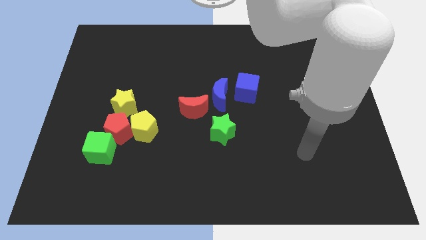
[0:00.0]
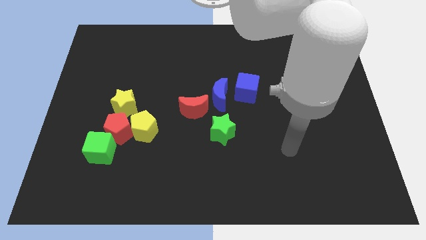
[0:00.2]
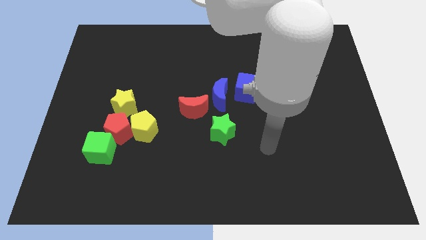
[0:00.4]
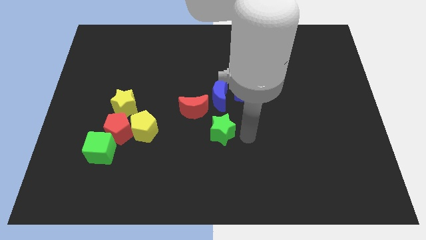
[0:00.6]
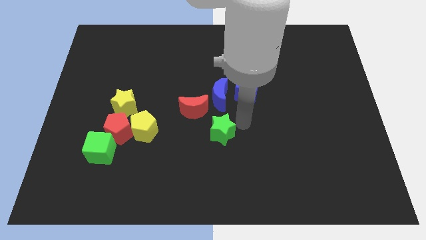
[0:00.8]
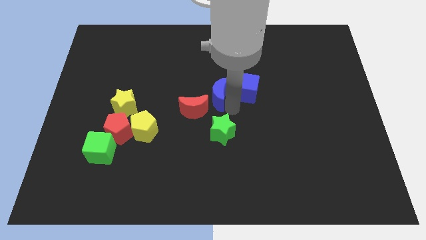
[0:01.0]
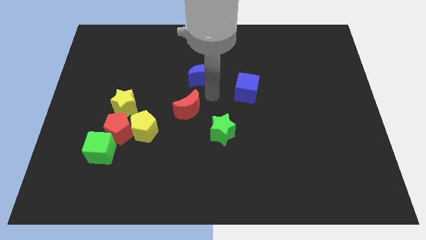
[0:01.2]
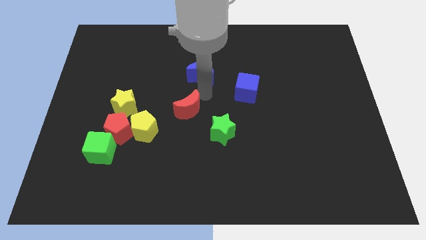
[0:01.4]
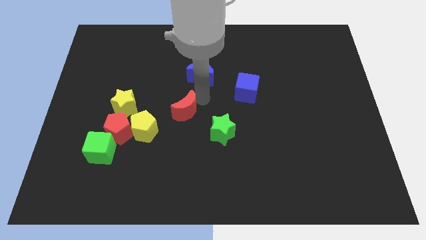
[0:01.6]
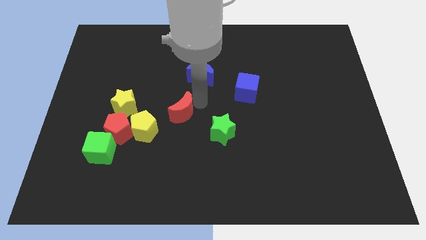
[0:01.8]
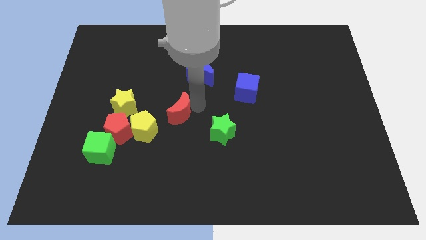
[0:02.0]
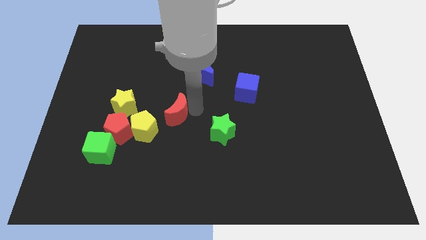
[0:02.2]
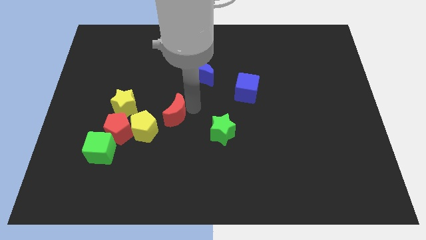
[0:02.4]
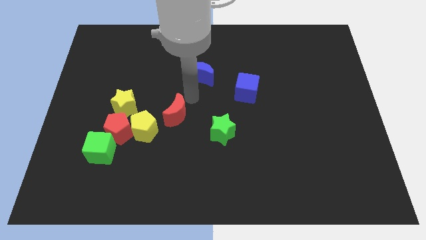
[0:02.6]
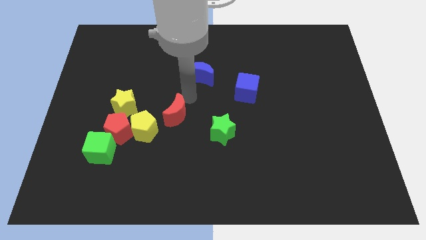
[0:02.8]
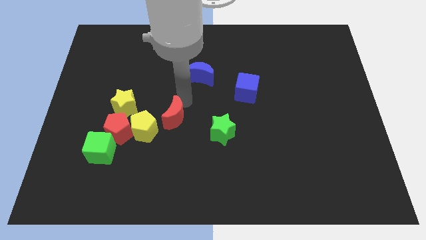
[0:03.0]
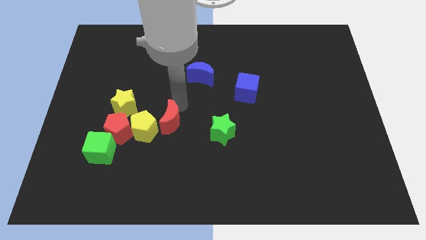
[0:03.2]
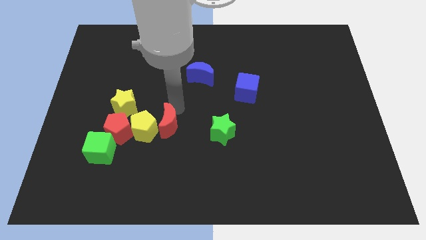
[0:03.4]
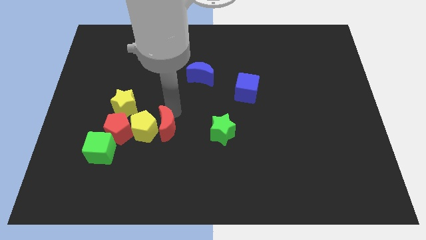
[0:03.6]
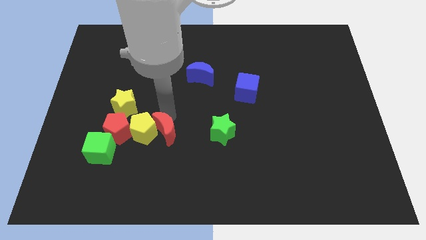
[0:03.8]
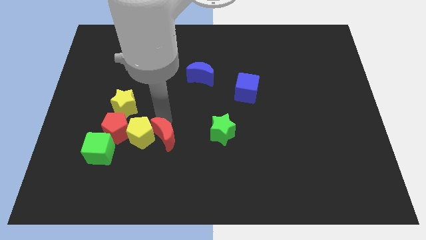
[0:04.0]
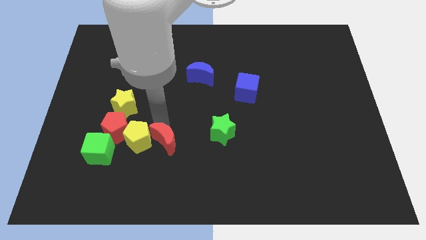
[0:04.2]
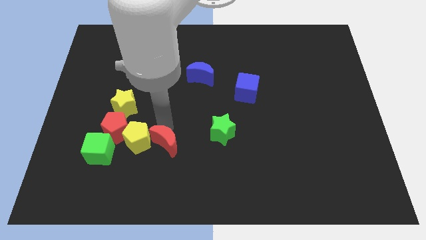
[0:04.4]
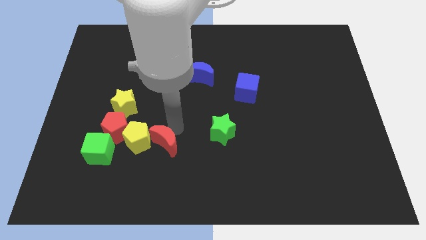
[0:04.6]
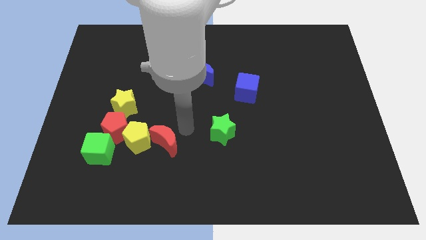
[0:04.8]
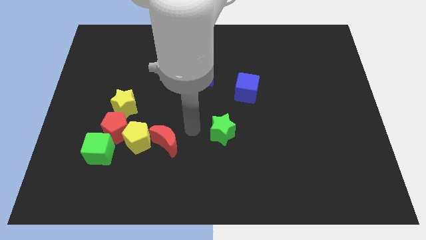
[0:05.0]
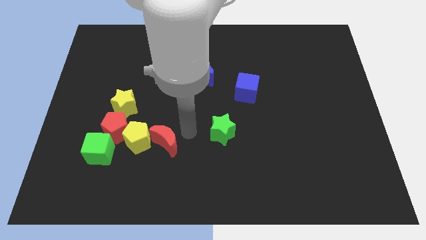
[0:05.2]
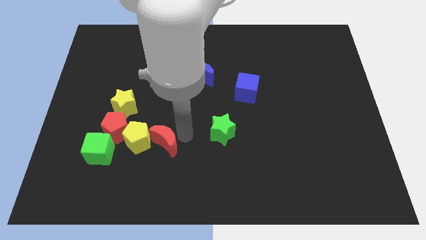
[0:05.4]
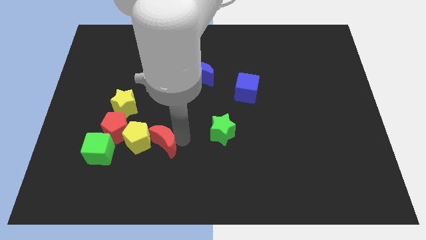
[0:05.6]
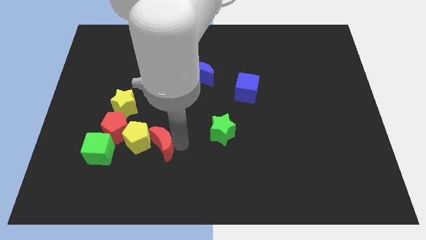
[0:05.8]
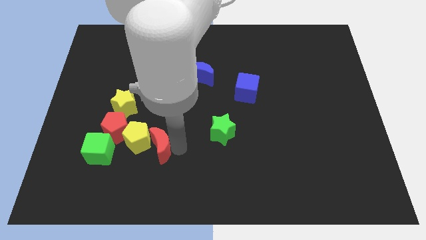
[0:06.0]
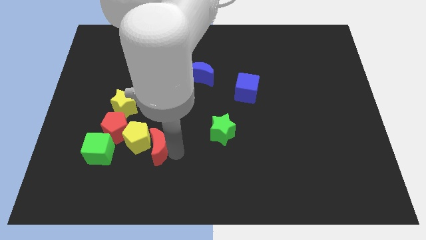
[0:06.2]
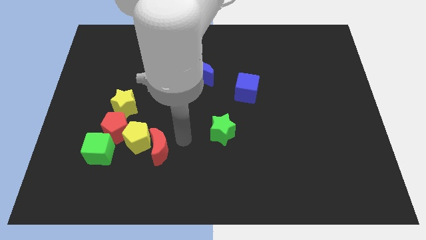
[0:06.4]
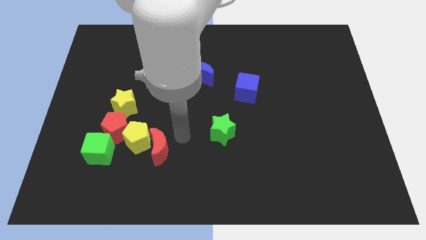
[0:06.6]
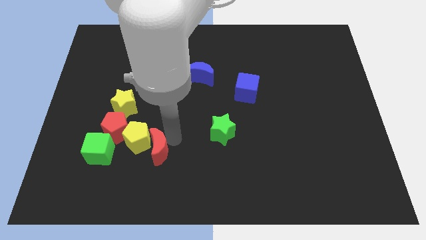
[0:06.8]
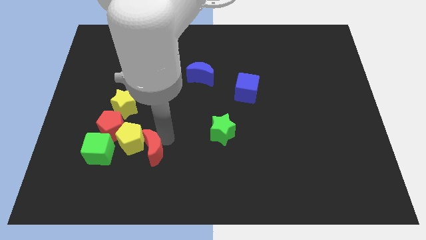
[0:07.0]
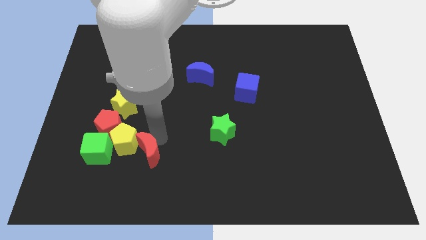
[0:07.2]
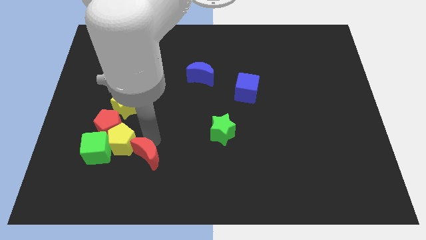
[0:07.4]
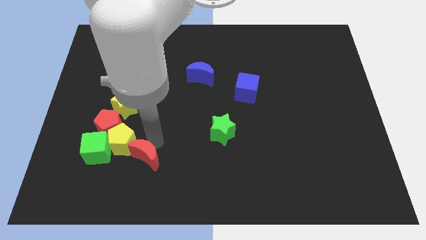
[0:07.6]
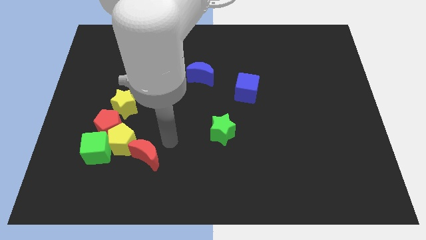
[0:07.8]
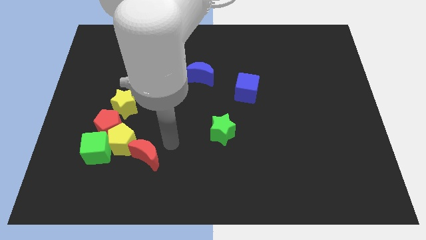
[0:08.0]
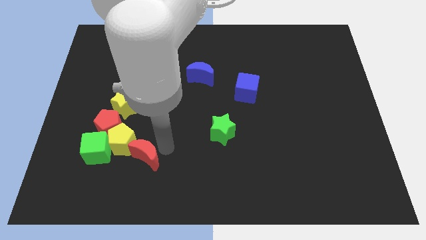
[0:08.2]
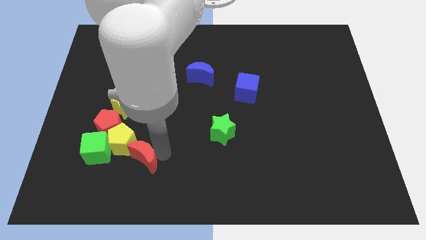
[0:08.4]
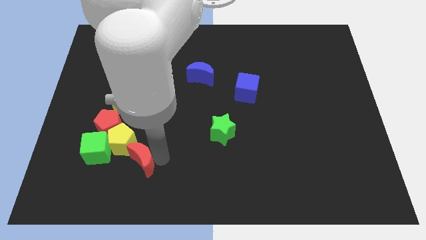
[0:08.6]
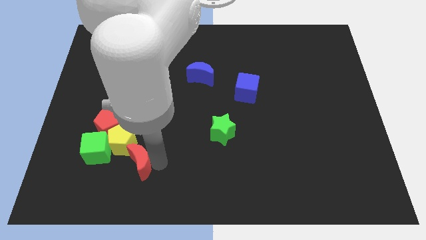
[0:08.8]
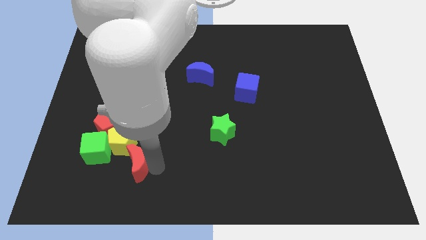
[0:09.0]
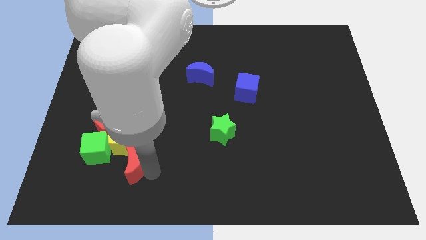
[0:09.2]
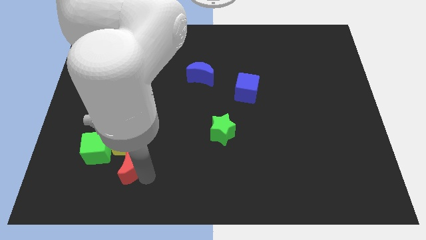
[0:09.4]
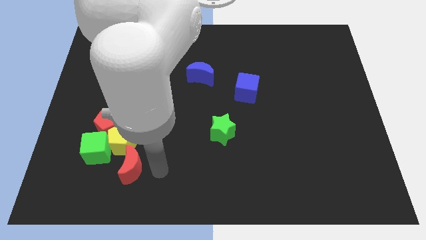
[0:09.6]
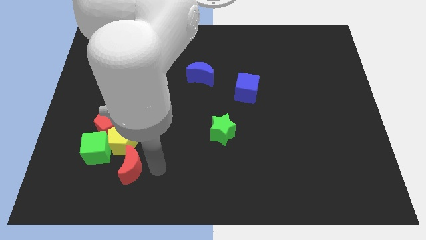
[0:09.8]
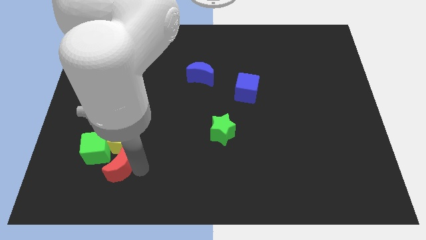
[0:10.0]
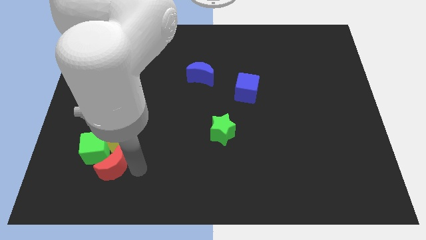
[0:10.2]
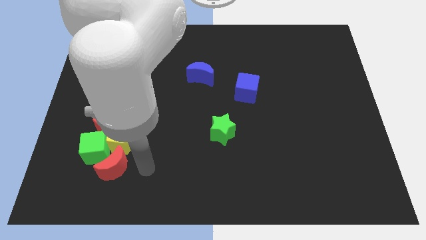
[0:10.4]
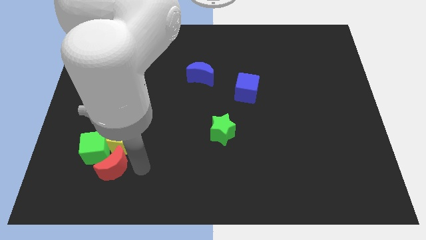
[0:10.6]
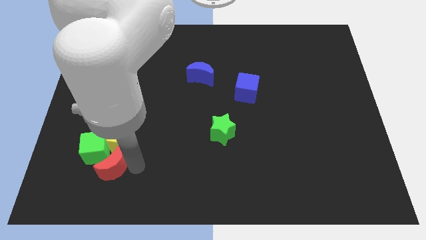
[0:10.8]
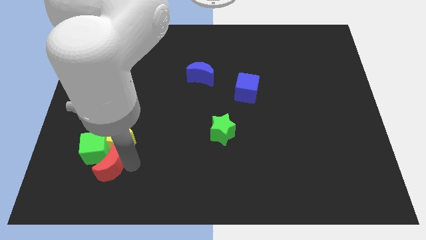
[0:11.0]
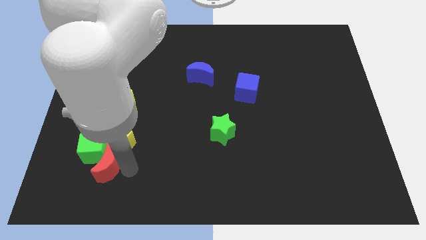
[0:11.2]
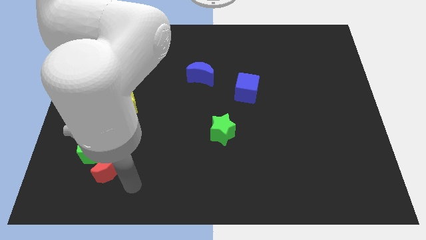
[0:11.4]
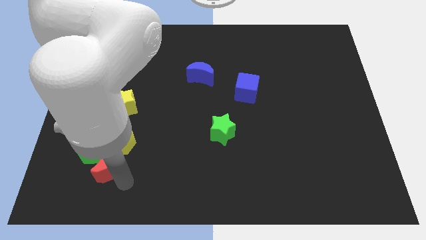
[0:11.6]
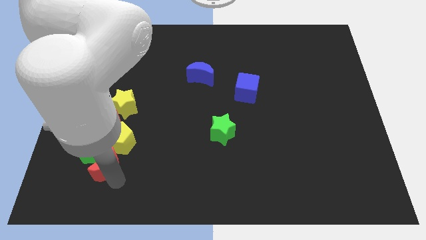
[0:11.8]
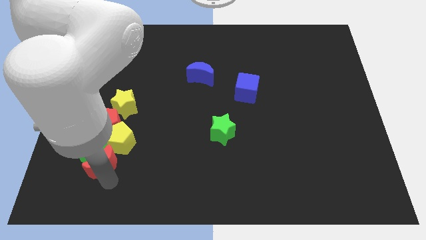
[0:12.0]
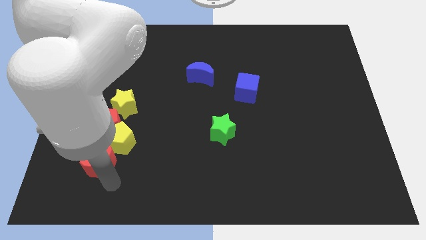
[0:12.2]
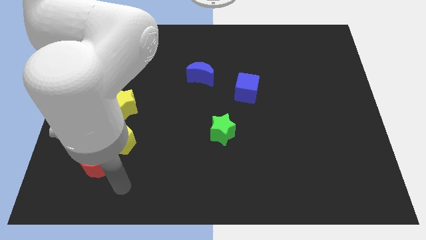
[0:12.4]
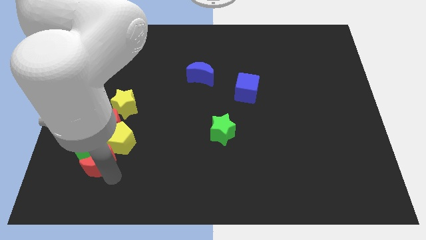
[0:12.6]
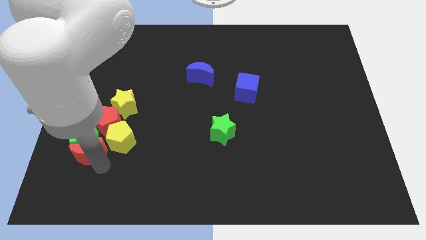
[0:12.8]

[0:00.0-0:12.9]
move the red moon to the bottom left side of the red pentagon

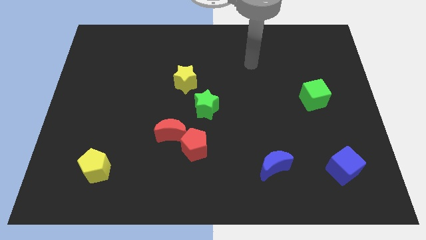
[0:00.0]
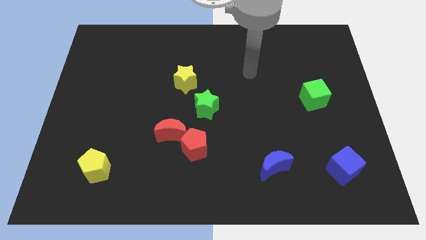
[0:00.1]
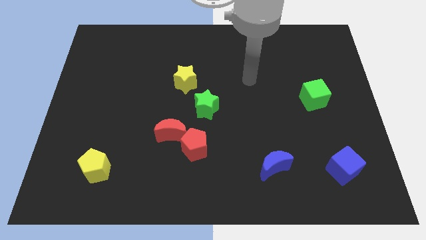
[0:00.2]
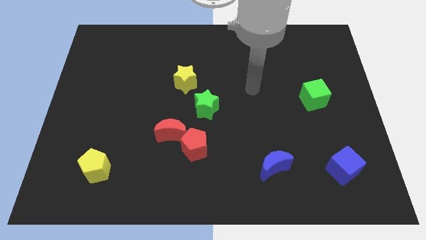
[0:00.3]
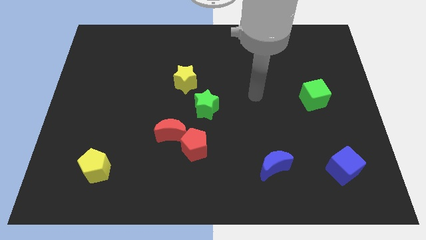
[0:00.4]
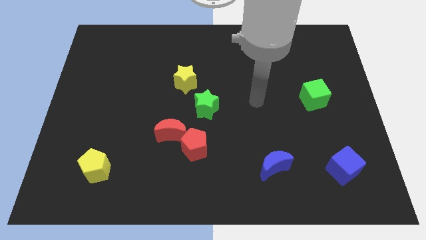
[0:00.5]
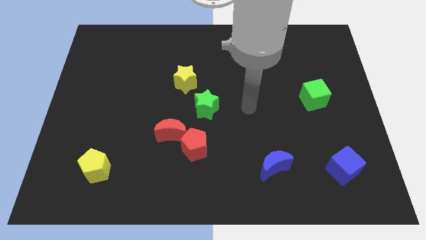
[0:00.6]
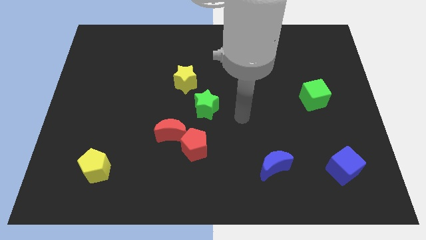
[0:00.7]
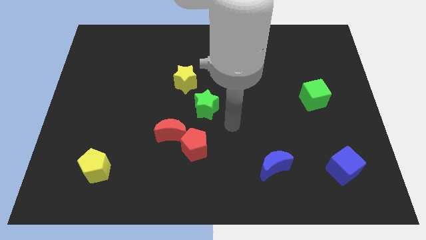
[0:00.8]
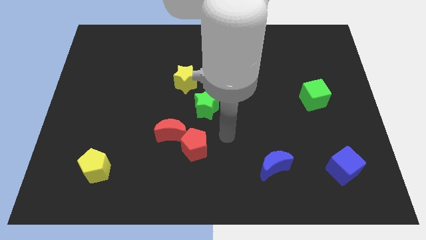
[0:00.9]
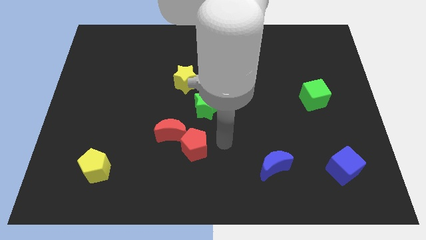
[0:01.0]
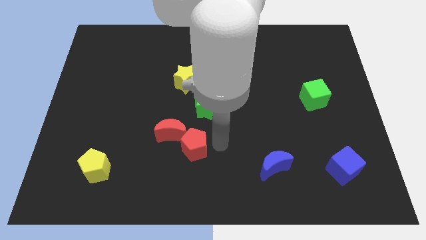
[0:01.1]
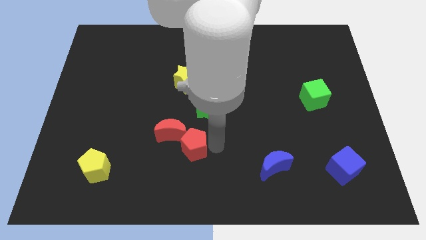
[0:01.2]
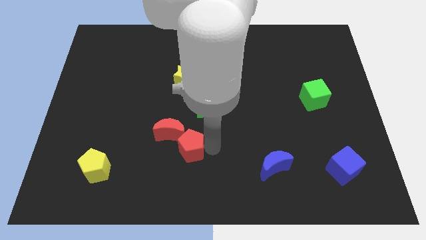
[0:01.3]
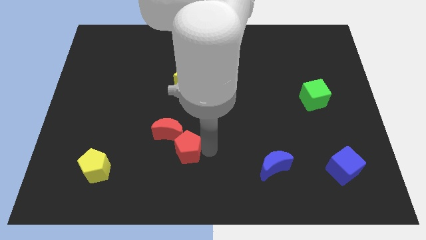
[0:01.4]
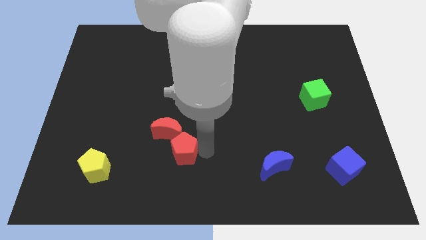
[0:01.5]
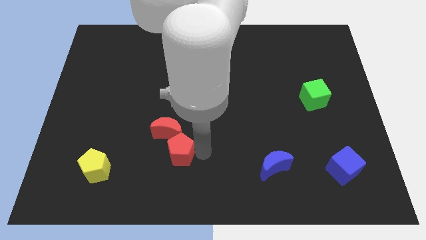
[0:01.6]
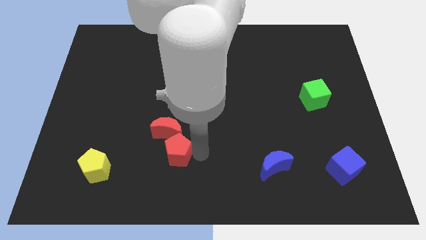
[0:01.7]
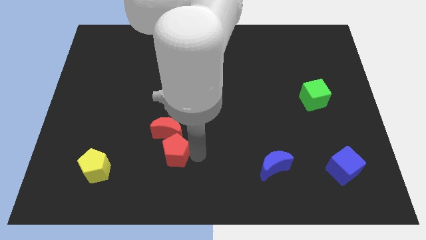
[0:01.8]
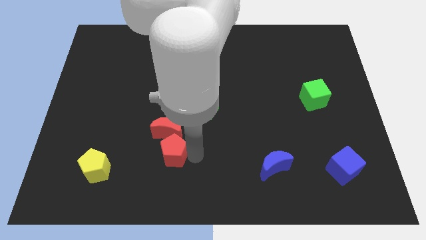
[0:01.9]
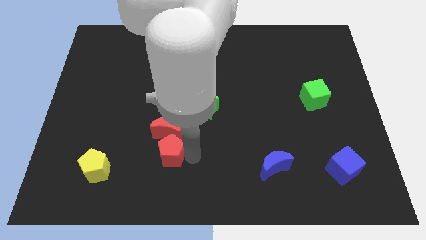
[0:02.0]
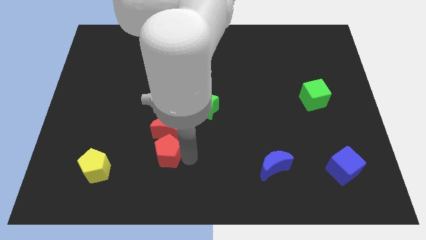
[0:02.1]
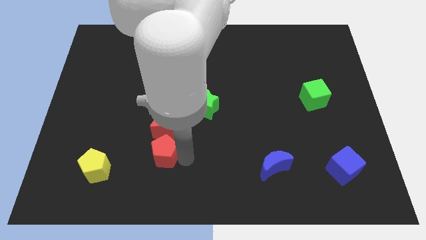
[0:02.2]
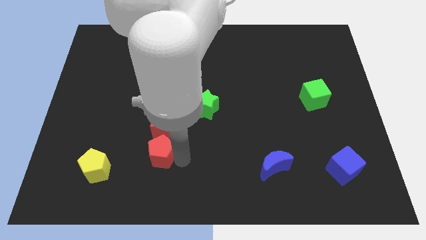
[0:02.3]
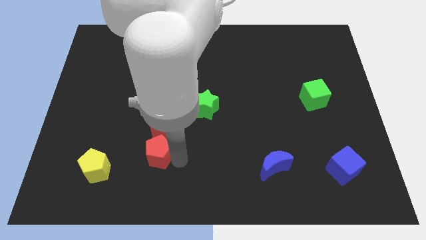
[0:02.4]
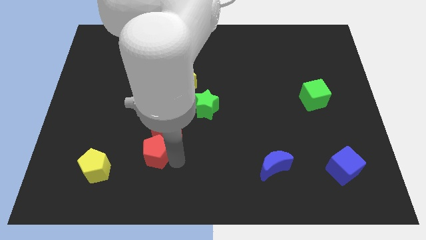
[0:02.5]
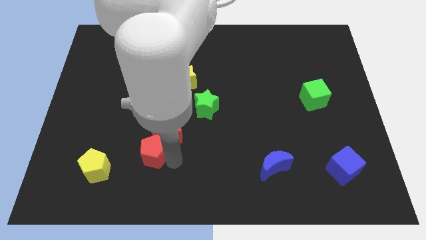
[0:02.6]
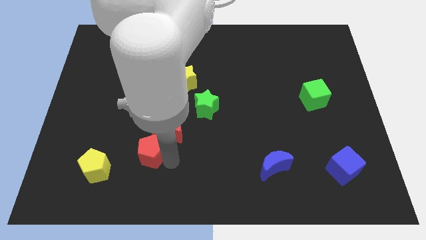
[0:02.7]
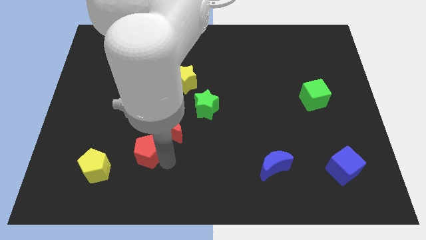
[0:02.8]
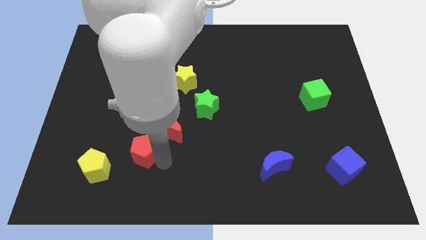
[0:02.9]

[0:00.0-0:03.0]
push the red pentagon diagonally up and to the right of the yellow pentagon
